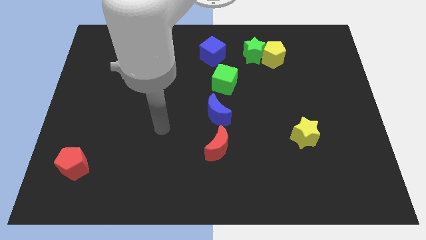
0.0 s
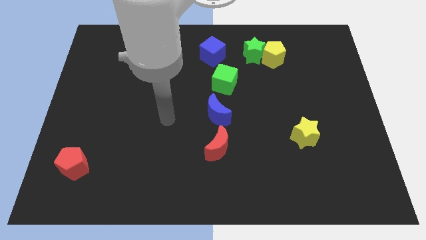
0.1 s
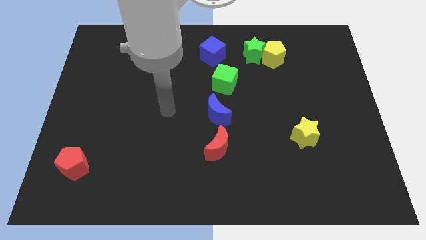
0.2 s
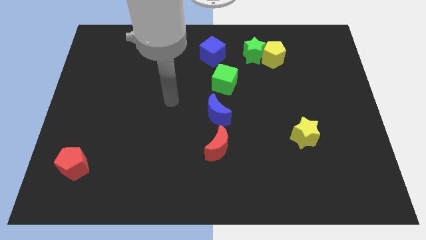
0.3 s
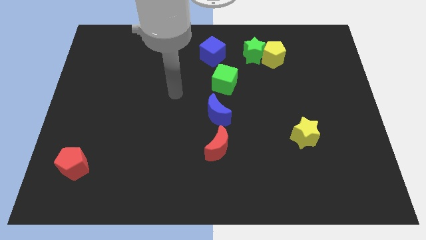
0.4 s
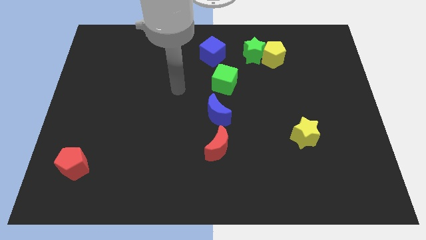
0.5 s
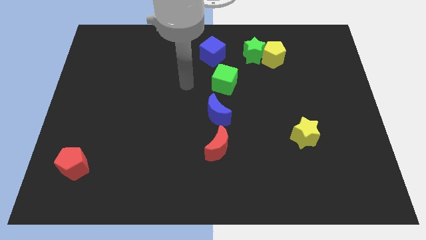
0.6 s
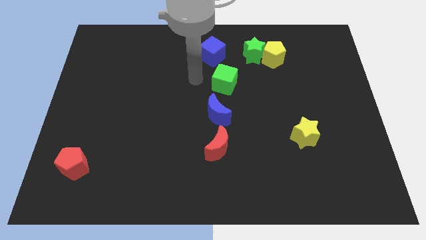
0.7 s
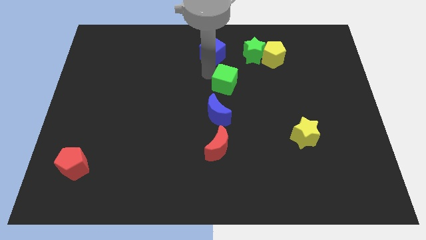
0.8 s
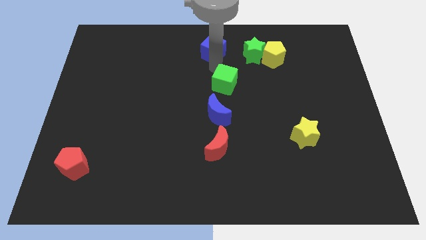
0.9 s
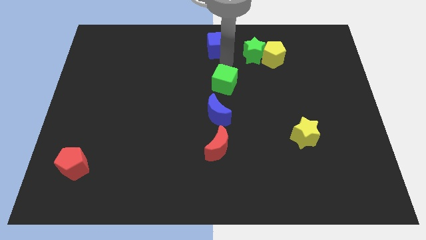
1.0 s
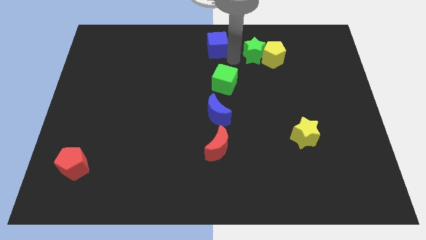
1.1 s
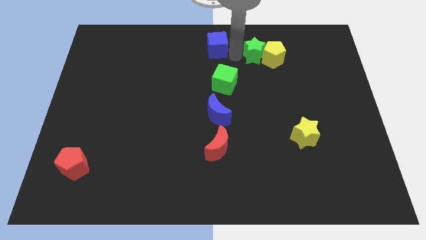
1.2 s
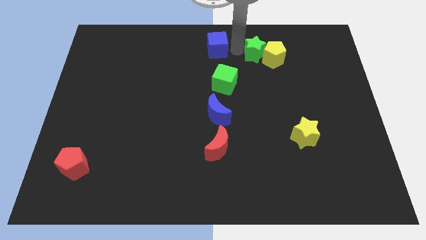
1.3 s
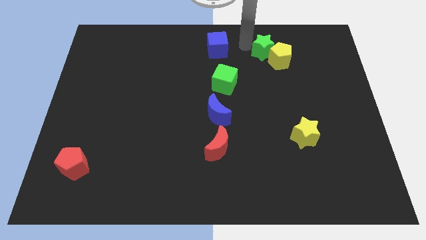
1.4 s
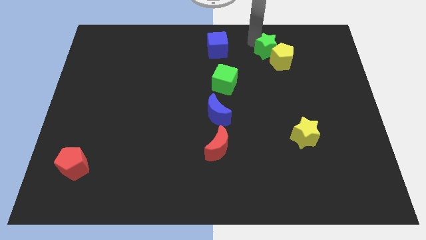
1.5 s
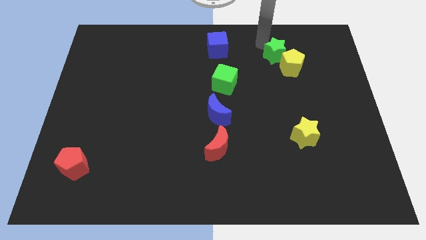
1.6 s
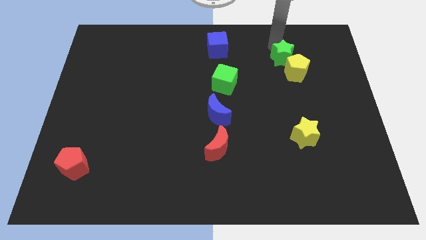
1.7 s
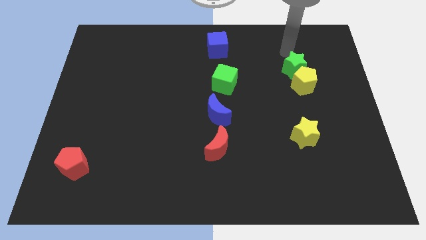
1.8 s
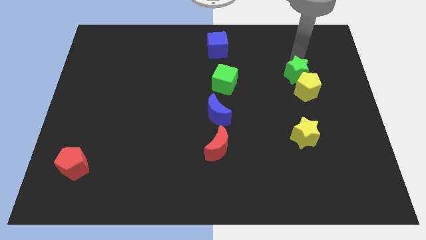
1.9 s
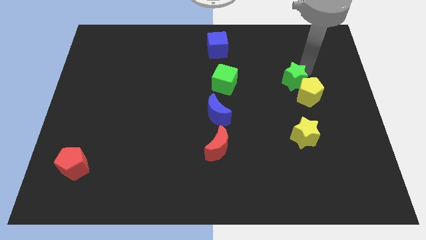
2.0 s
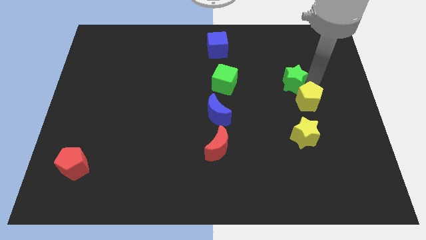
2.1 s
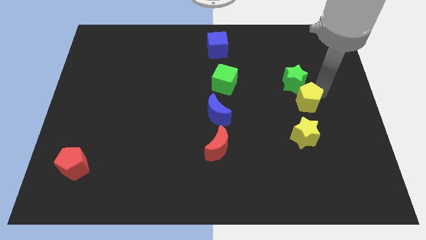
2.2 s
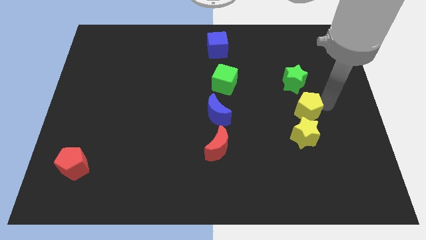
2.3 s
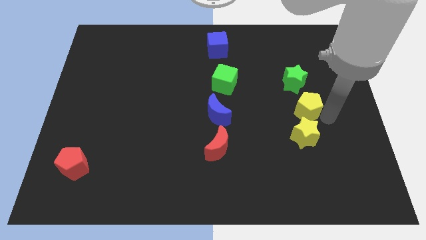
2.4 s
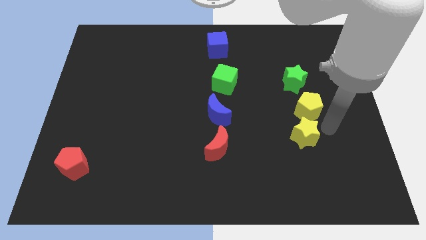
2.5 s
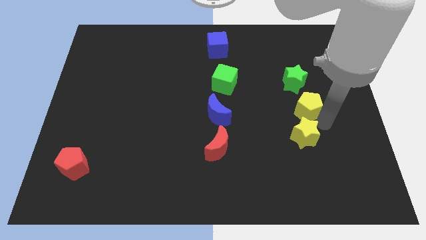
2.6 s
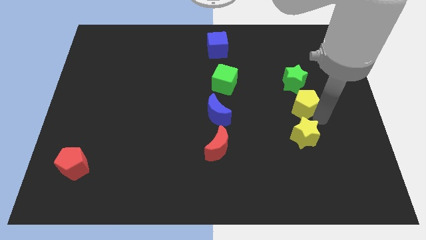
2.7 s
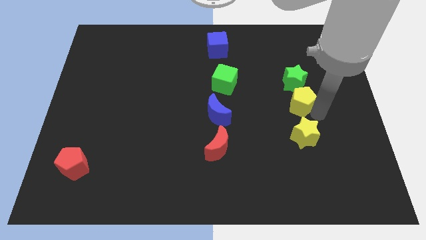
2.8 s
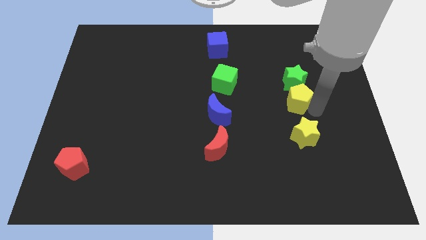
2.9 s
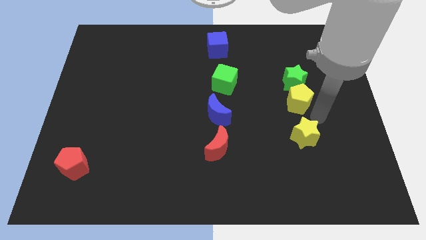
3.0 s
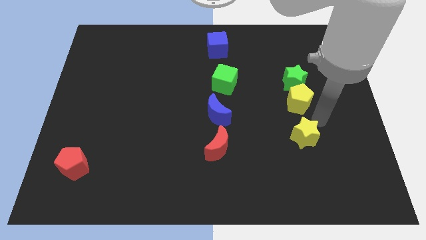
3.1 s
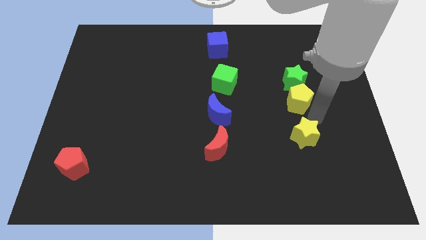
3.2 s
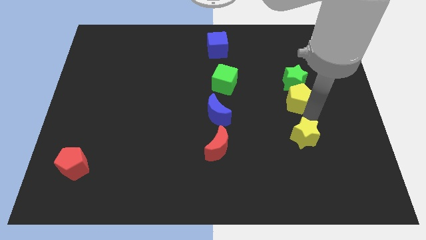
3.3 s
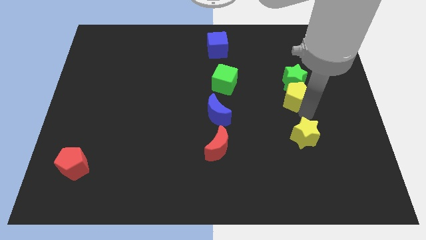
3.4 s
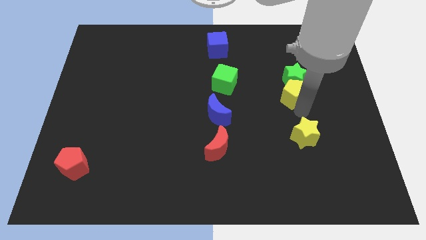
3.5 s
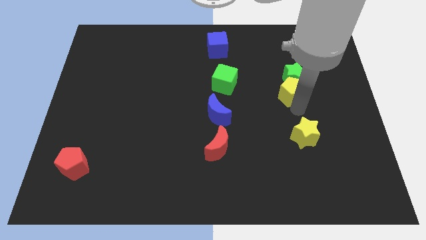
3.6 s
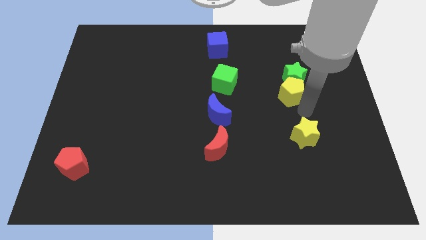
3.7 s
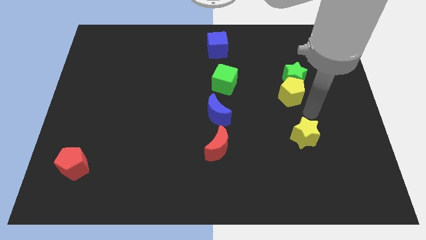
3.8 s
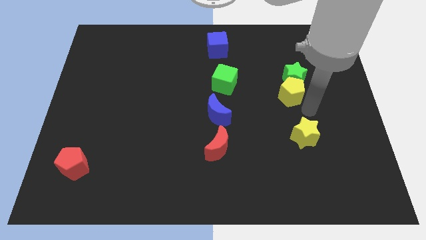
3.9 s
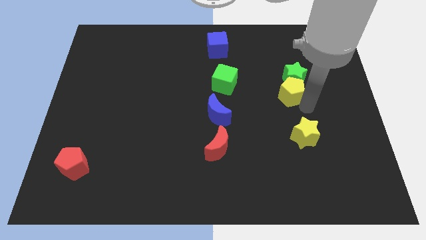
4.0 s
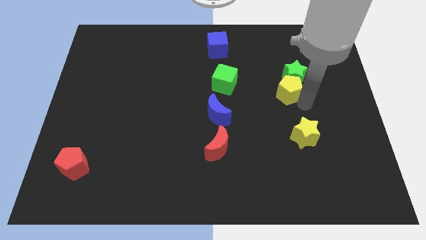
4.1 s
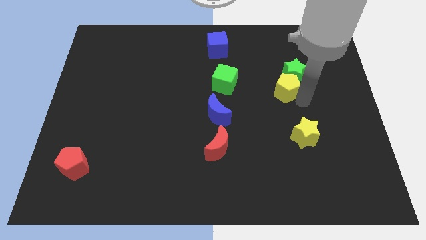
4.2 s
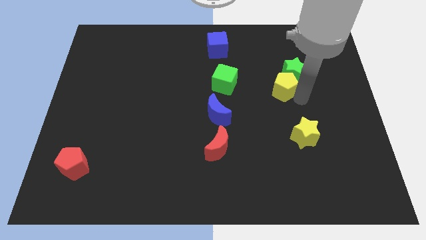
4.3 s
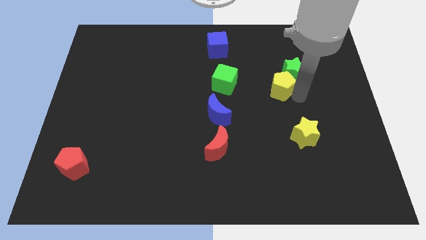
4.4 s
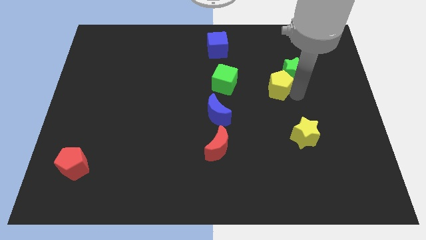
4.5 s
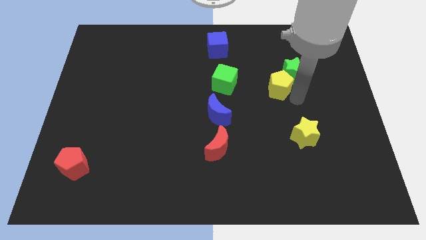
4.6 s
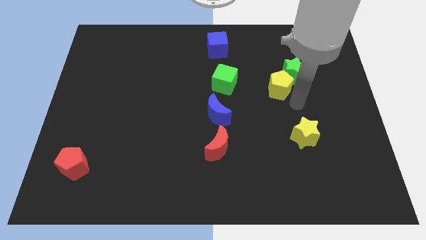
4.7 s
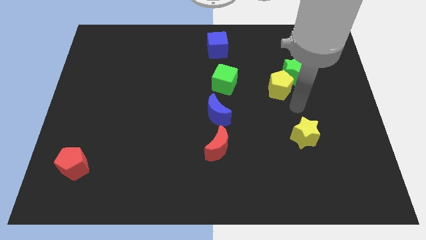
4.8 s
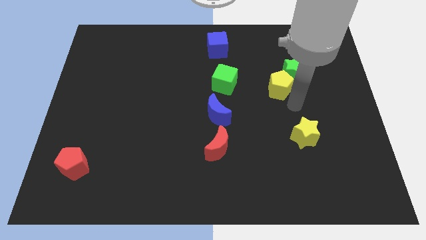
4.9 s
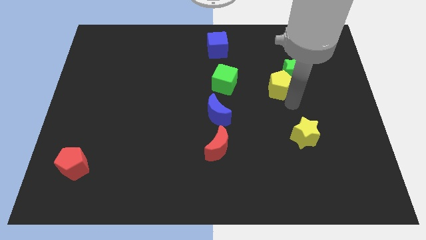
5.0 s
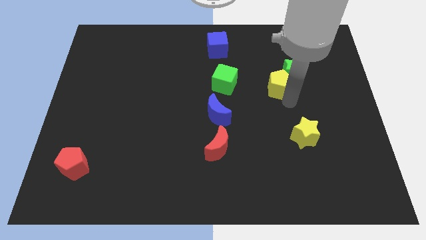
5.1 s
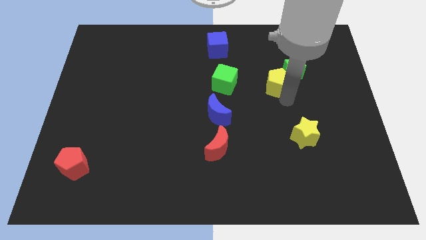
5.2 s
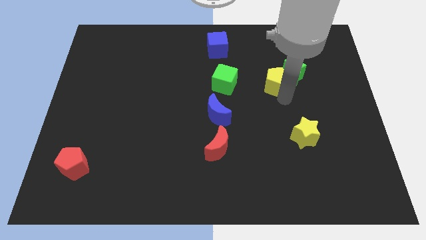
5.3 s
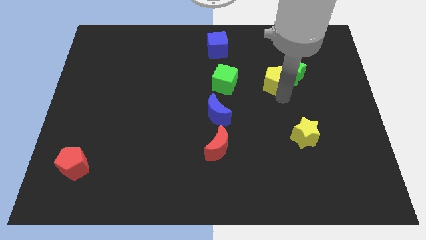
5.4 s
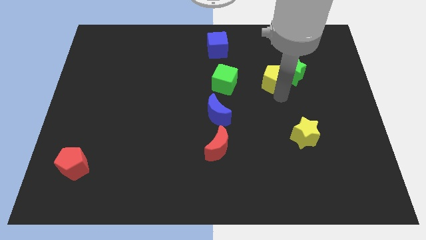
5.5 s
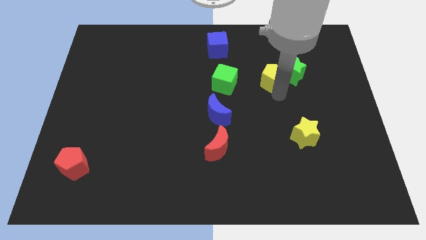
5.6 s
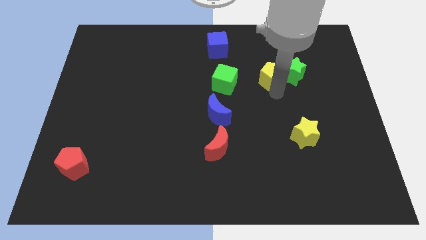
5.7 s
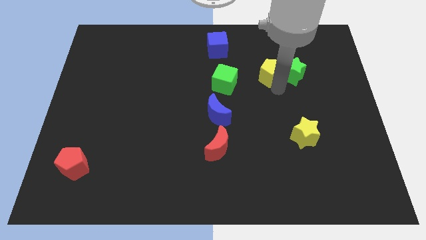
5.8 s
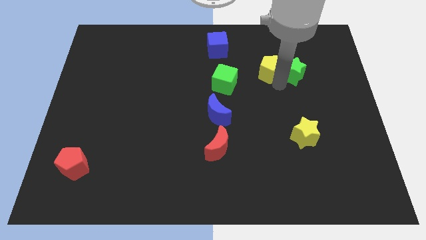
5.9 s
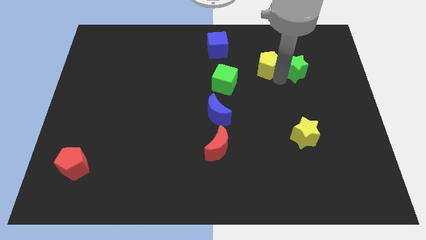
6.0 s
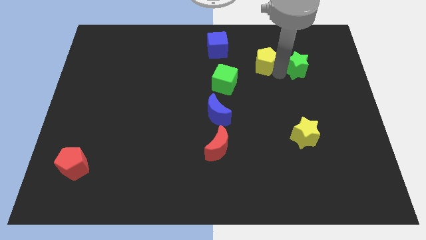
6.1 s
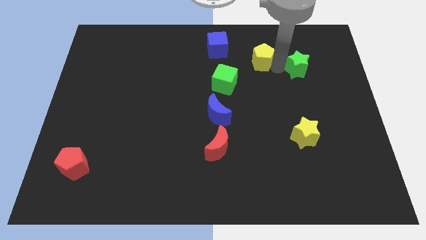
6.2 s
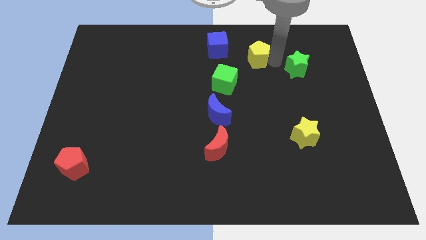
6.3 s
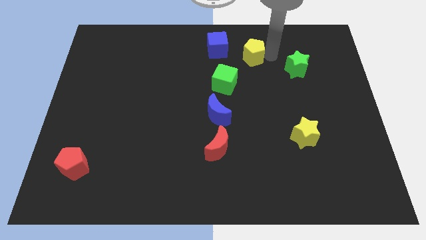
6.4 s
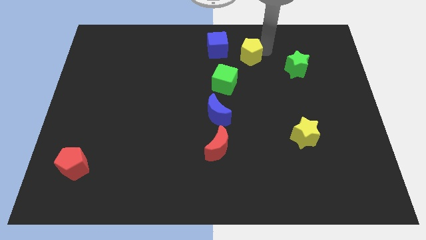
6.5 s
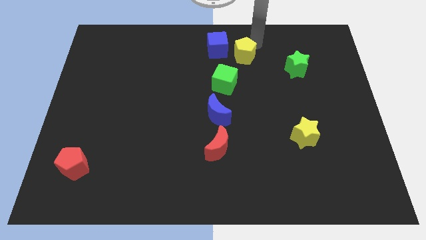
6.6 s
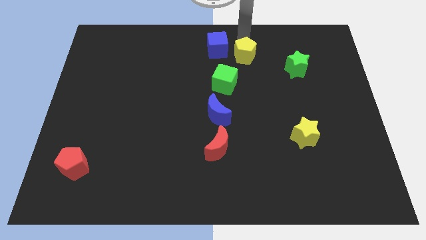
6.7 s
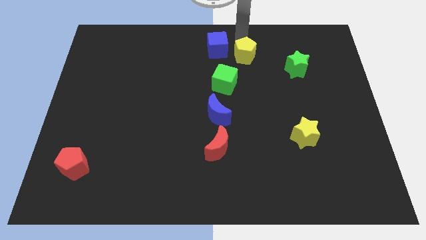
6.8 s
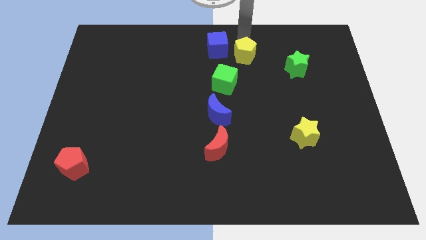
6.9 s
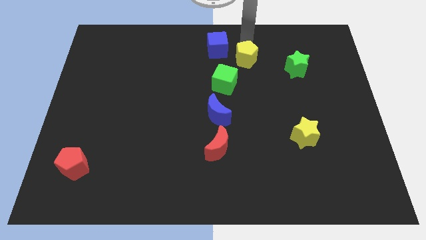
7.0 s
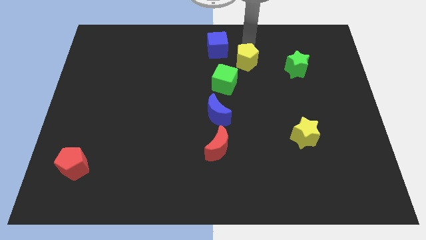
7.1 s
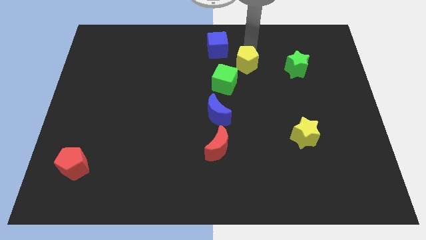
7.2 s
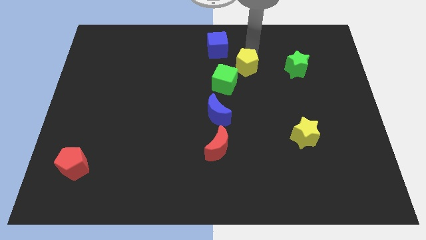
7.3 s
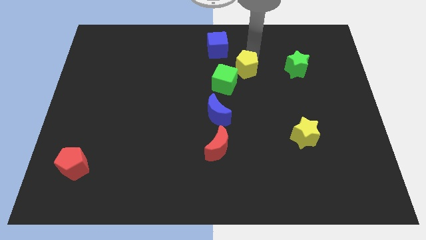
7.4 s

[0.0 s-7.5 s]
move the yellow pentagon downwards and then to the left a little

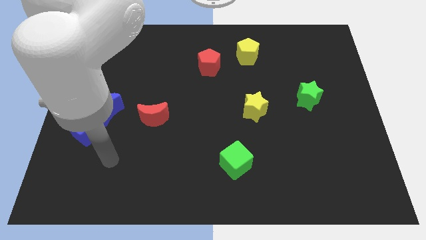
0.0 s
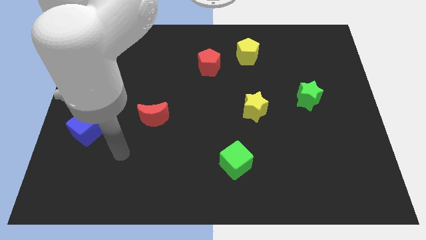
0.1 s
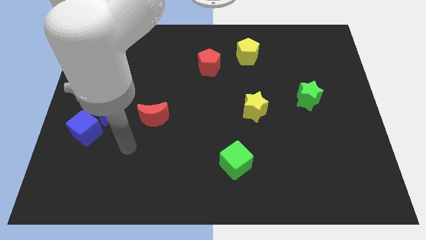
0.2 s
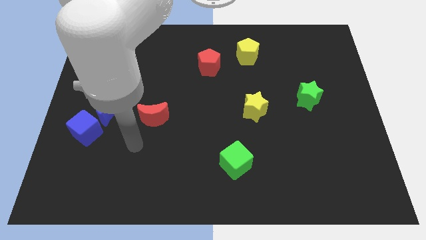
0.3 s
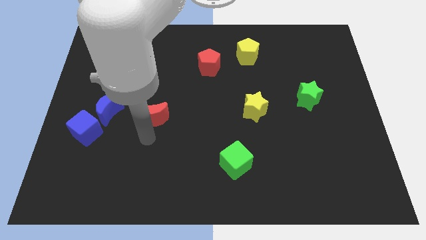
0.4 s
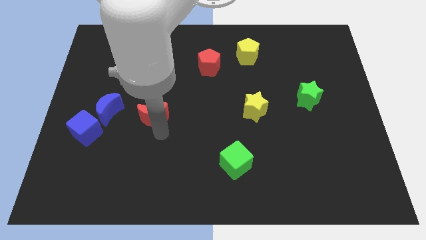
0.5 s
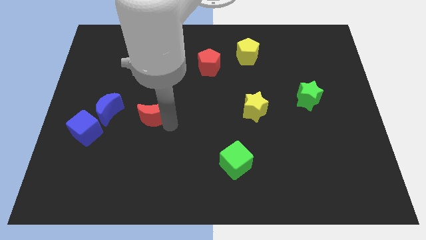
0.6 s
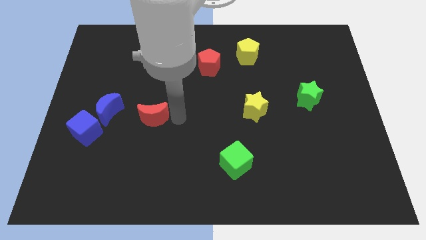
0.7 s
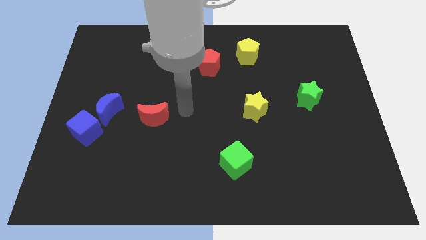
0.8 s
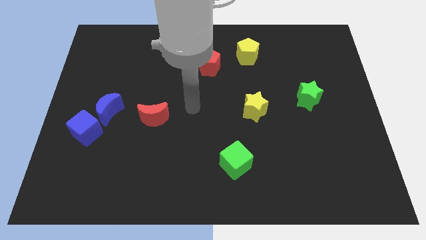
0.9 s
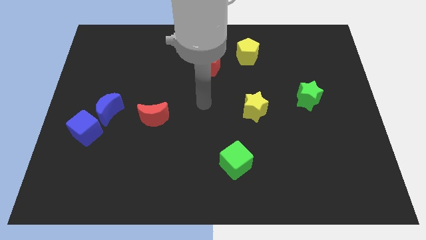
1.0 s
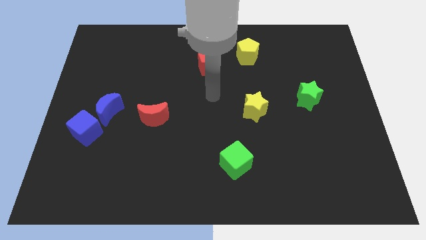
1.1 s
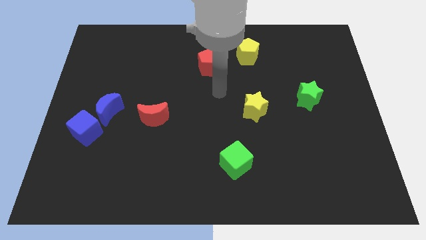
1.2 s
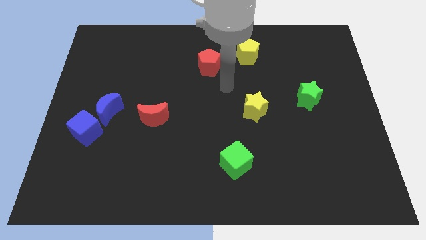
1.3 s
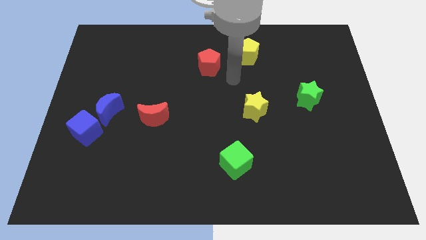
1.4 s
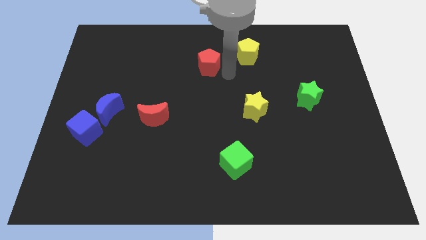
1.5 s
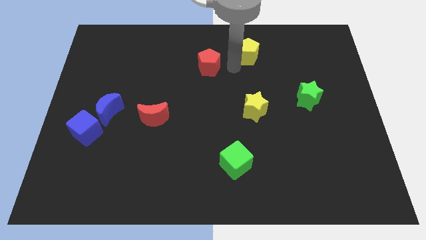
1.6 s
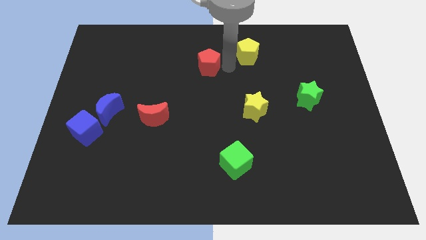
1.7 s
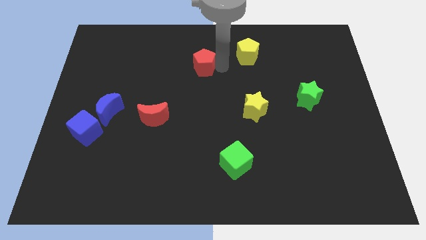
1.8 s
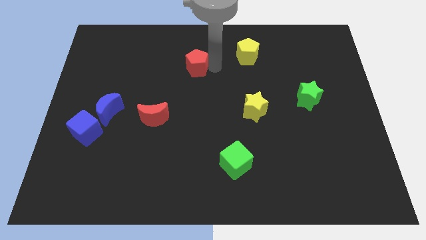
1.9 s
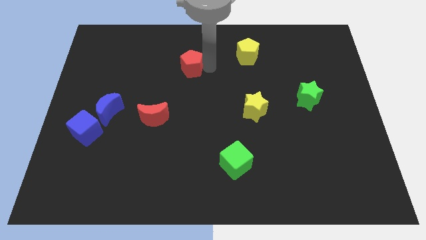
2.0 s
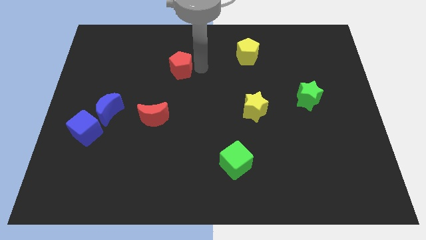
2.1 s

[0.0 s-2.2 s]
slide the red pentagon somewhat left
